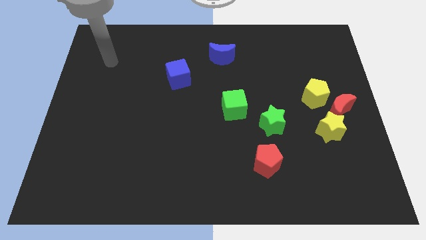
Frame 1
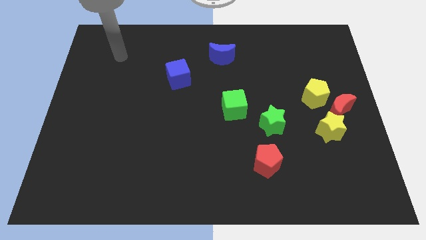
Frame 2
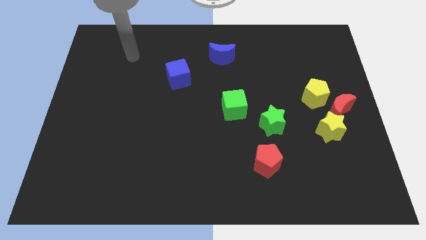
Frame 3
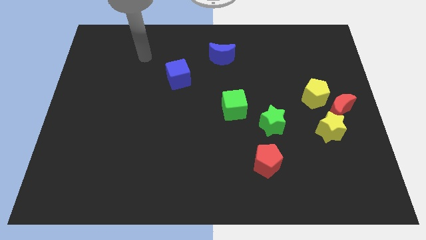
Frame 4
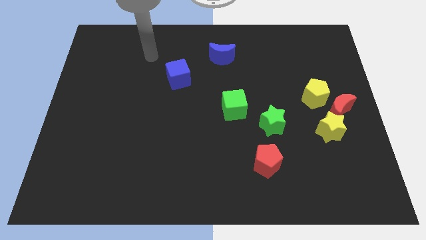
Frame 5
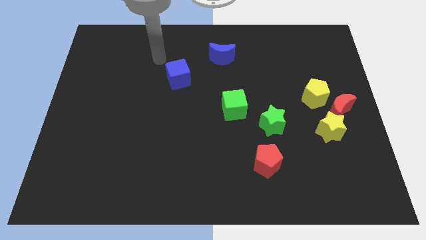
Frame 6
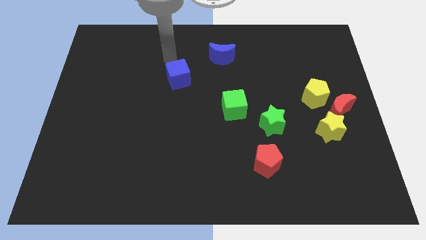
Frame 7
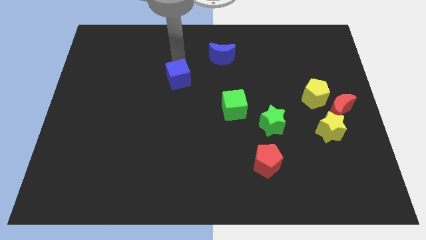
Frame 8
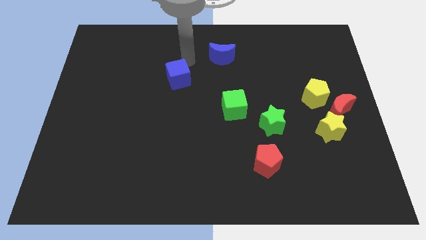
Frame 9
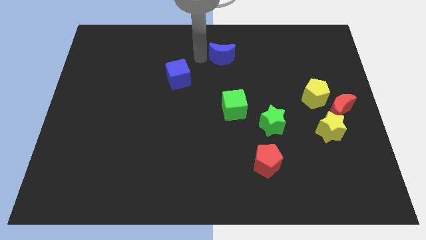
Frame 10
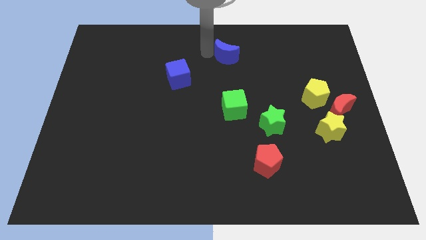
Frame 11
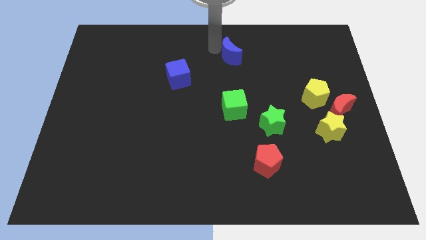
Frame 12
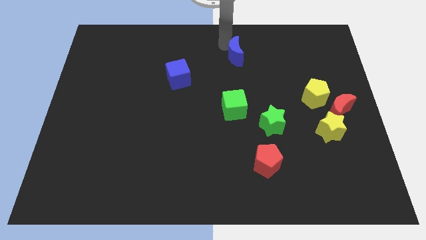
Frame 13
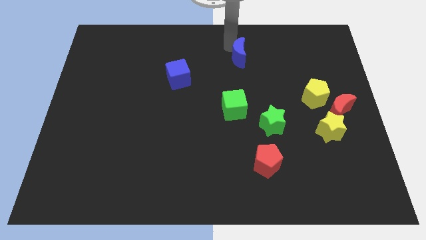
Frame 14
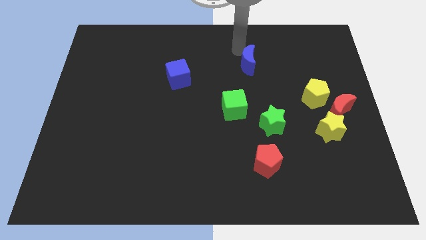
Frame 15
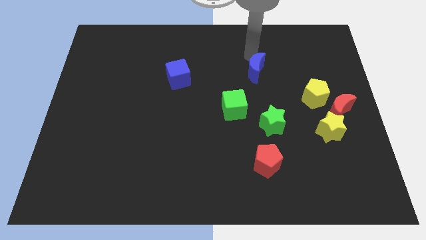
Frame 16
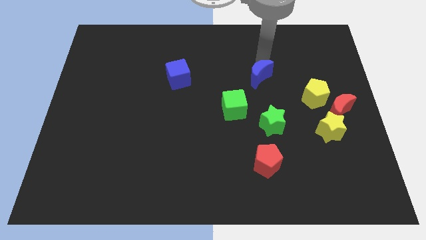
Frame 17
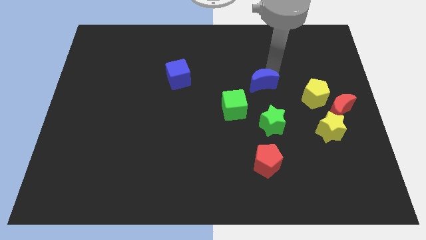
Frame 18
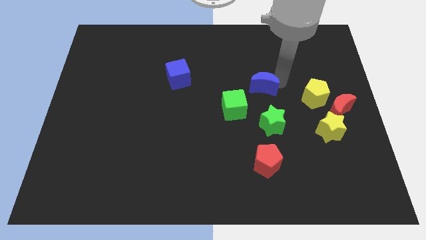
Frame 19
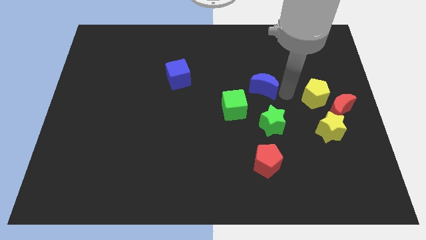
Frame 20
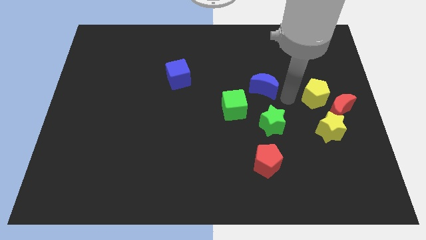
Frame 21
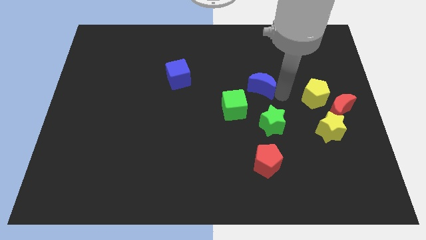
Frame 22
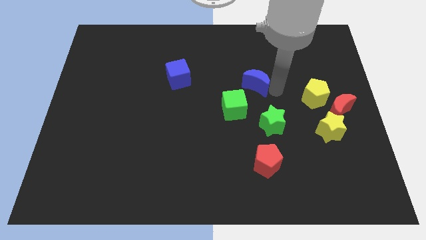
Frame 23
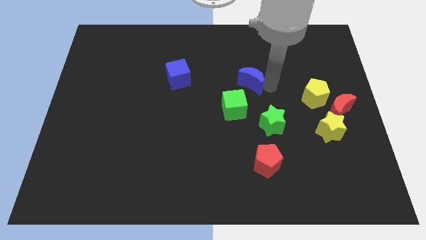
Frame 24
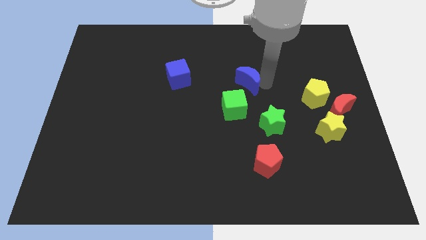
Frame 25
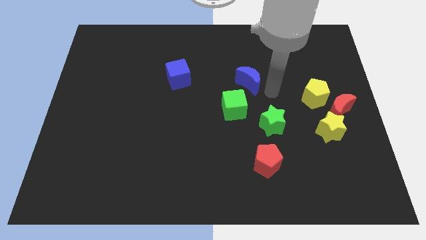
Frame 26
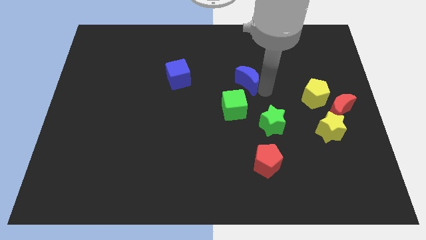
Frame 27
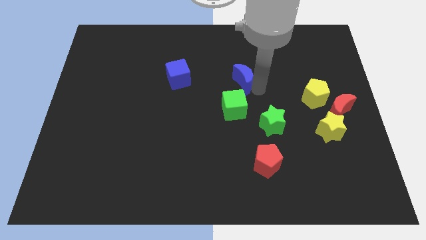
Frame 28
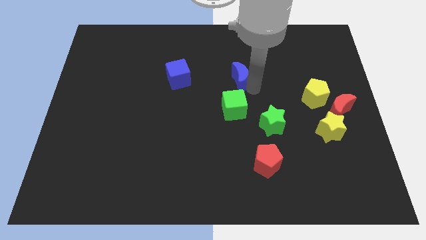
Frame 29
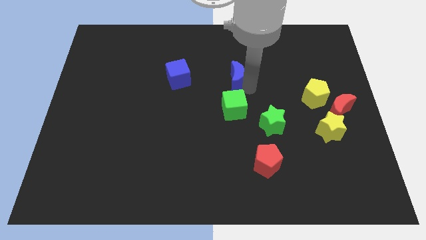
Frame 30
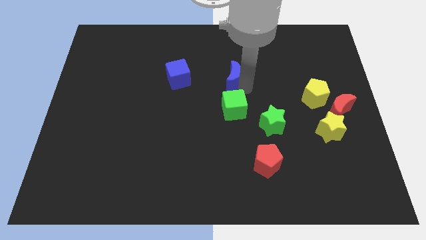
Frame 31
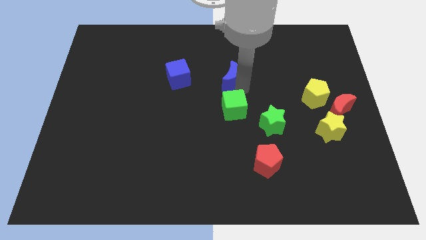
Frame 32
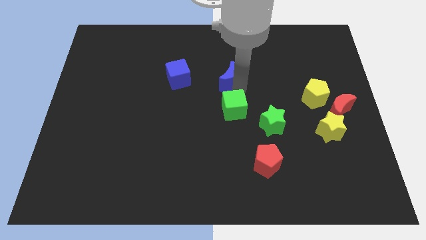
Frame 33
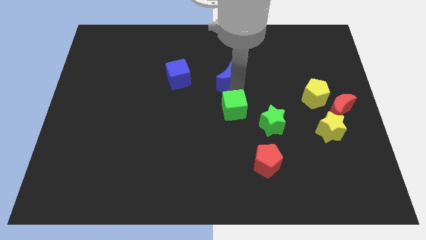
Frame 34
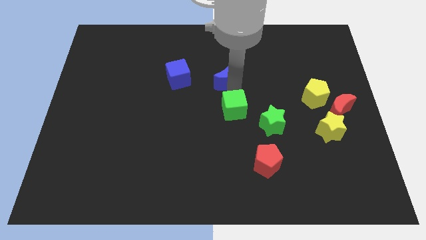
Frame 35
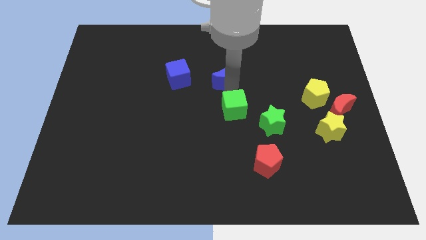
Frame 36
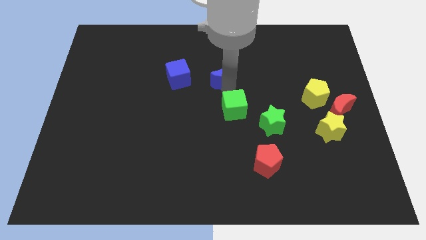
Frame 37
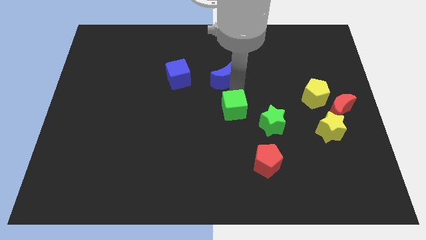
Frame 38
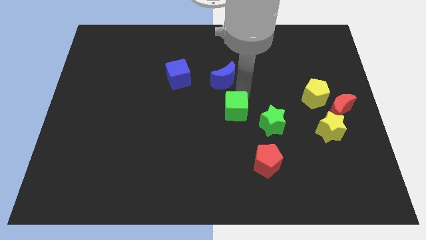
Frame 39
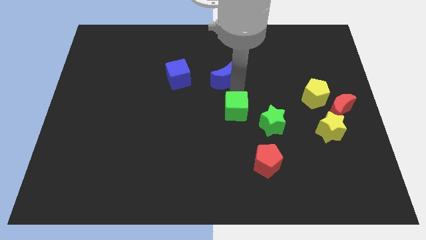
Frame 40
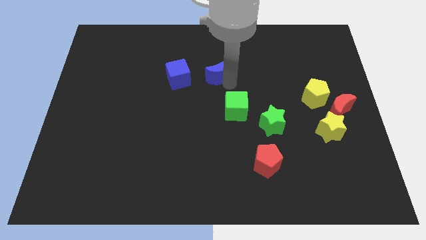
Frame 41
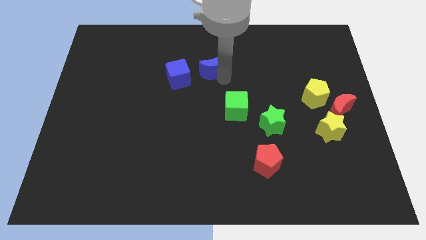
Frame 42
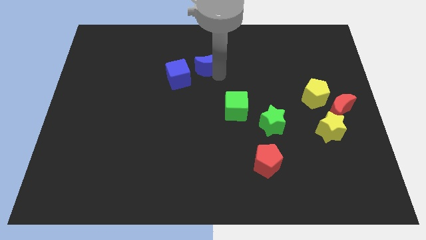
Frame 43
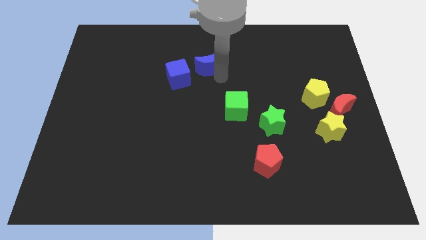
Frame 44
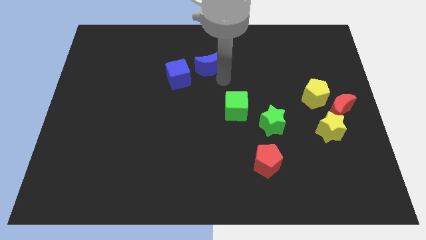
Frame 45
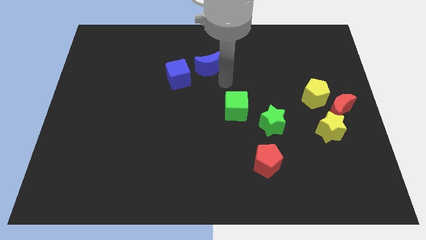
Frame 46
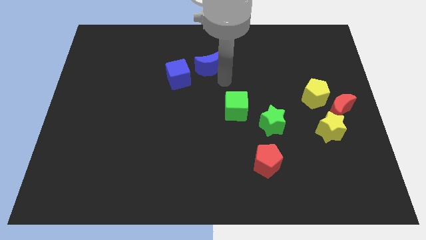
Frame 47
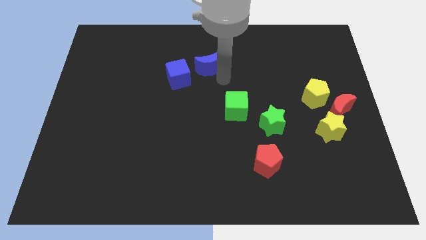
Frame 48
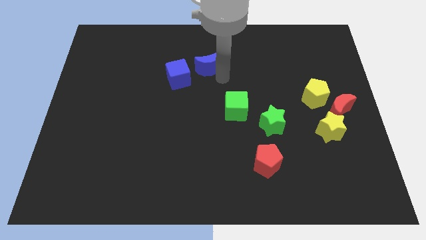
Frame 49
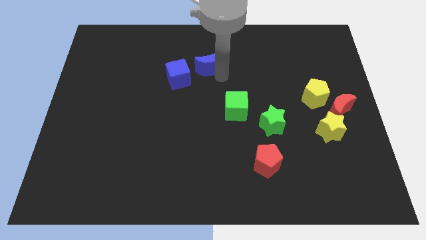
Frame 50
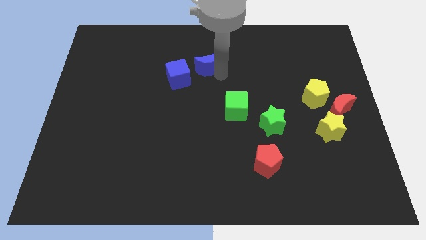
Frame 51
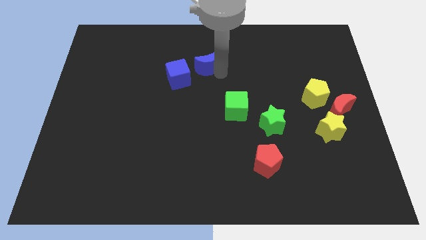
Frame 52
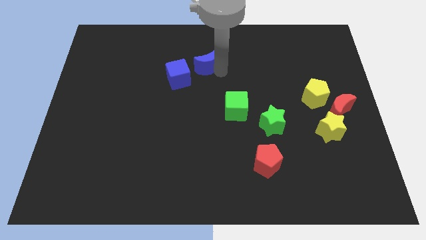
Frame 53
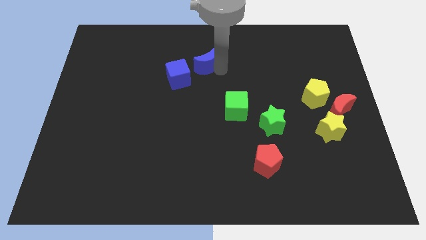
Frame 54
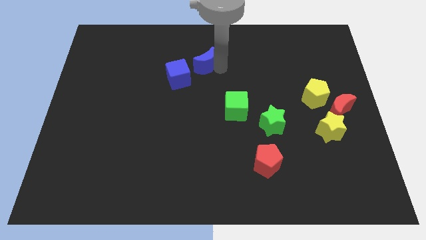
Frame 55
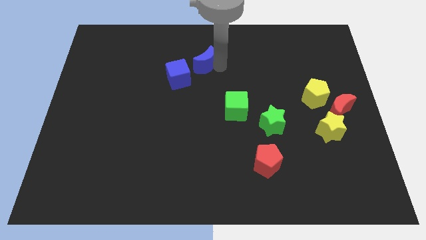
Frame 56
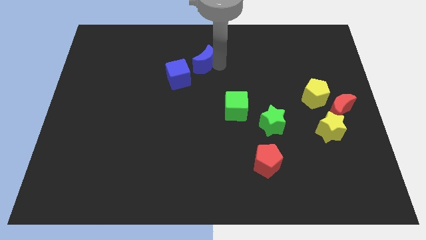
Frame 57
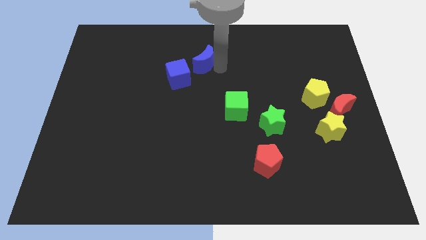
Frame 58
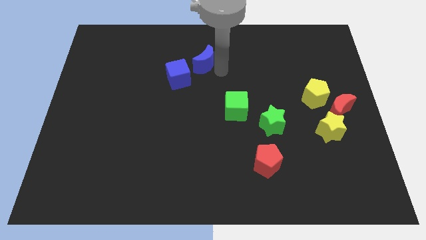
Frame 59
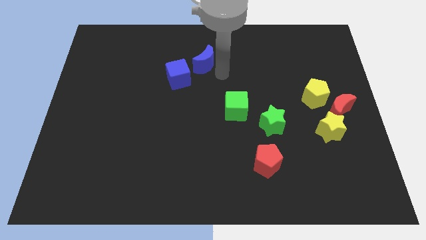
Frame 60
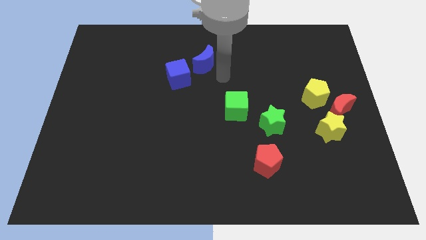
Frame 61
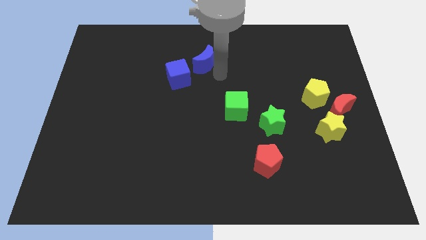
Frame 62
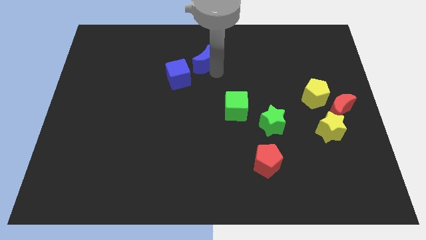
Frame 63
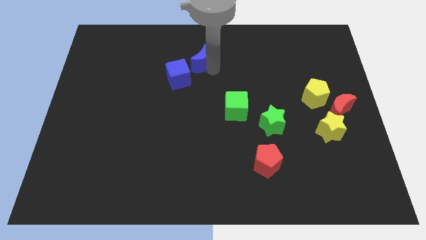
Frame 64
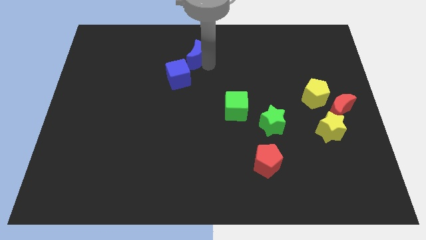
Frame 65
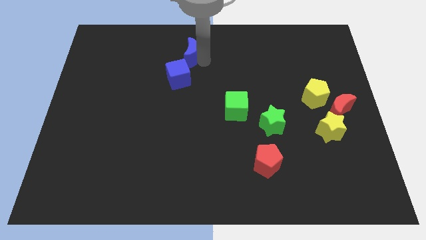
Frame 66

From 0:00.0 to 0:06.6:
slightly slide the blue moon to the left

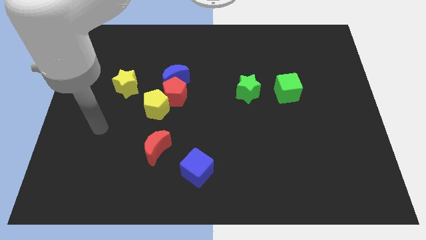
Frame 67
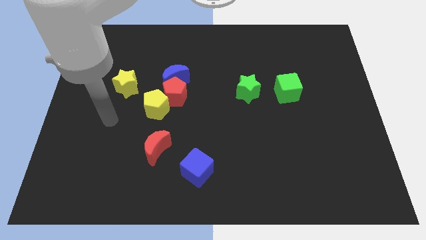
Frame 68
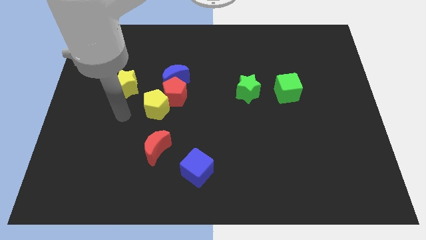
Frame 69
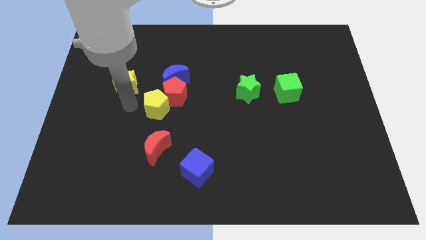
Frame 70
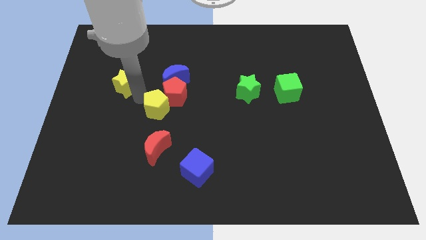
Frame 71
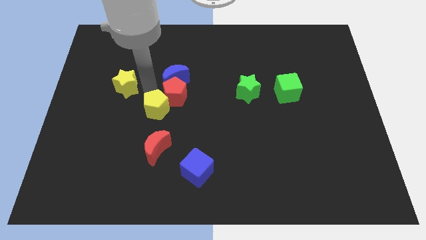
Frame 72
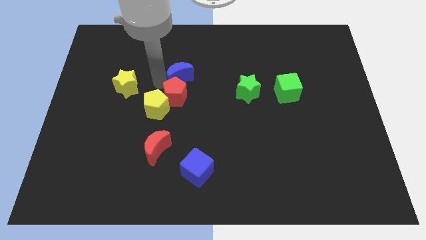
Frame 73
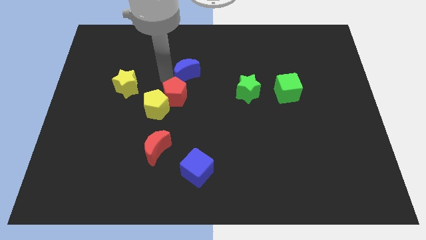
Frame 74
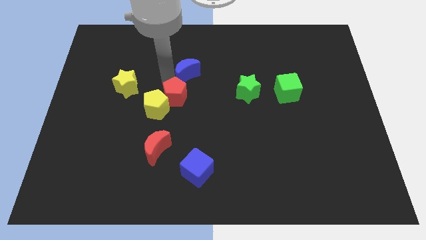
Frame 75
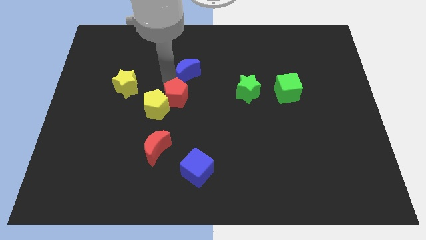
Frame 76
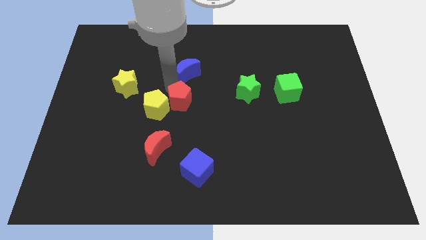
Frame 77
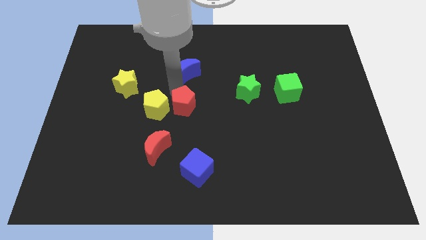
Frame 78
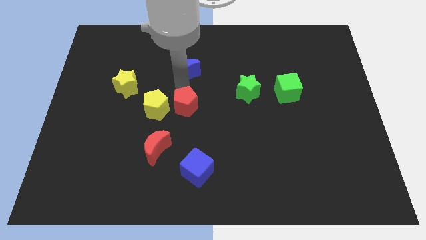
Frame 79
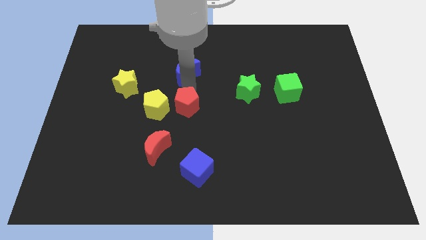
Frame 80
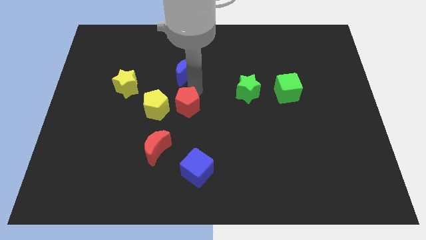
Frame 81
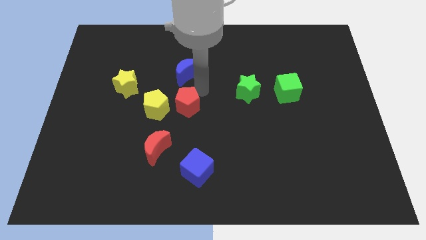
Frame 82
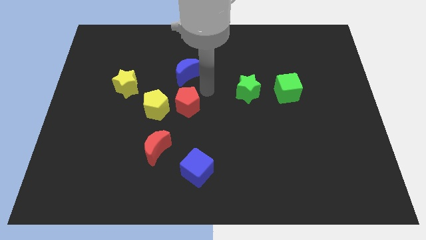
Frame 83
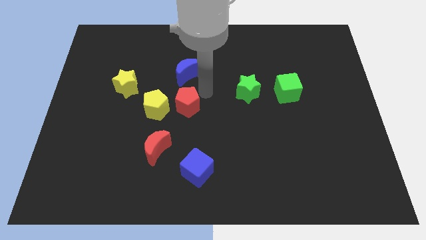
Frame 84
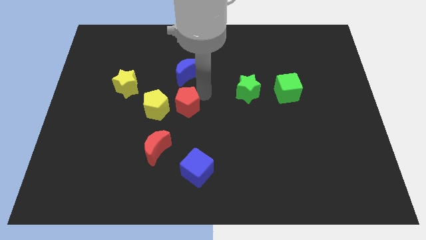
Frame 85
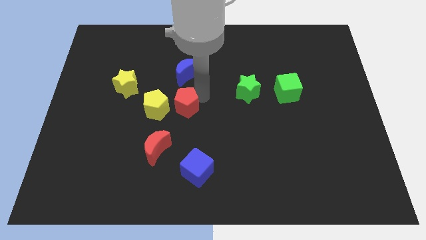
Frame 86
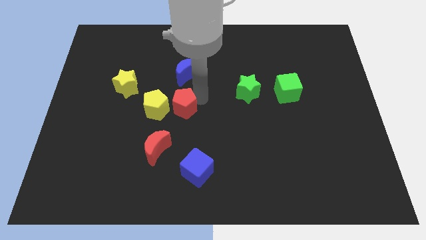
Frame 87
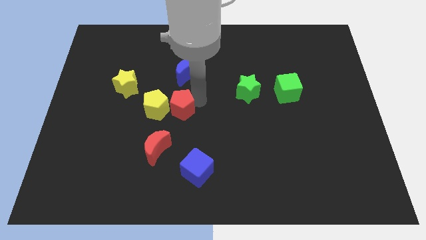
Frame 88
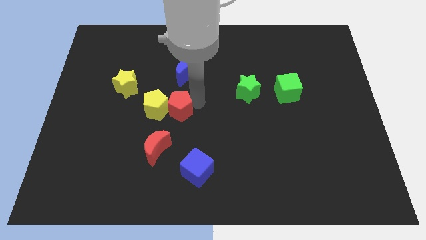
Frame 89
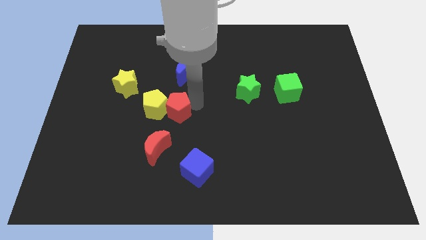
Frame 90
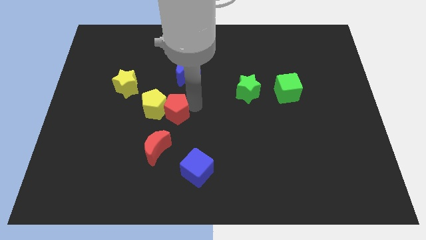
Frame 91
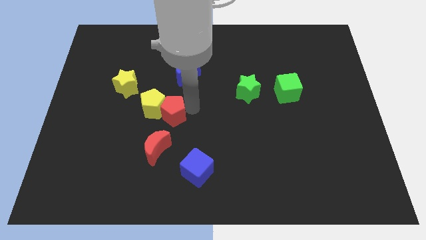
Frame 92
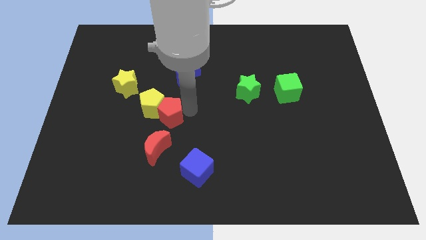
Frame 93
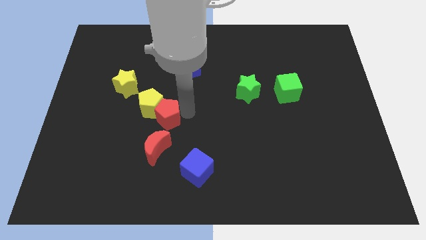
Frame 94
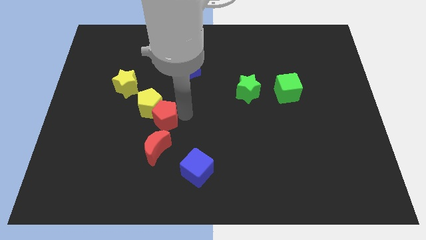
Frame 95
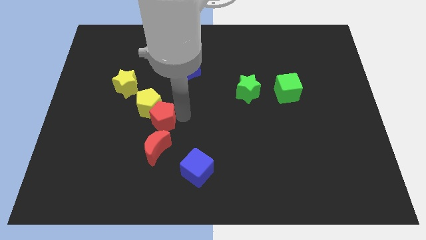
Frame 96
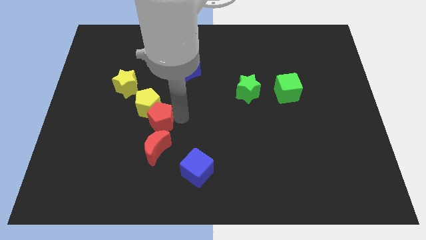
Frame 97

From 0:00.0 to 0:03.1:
slide the red pentagon downwards and then to the left a little
